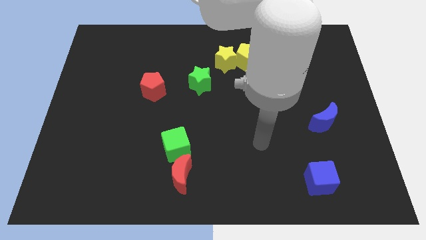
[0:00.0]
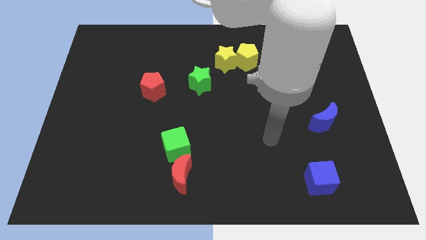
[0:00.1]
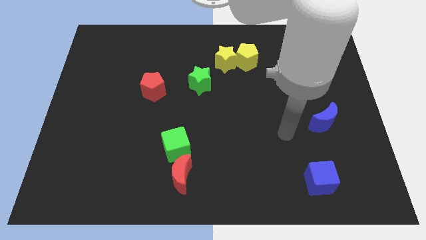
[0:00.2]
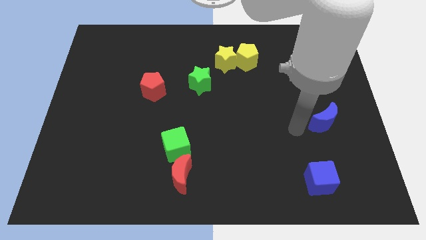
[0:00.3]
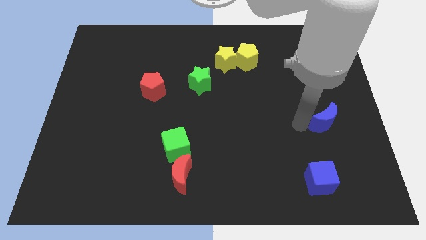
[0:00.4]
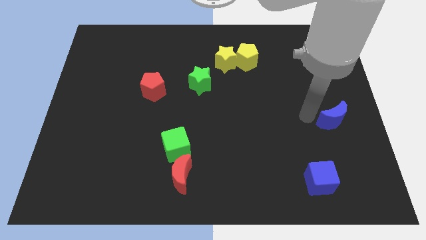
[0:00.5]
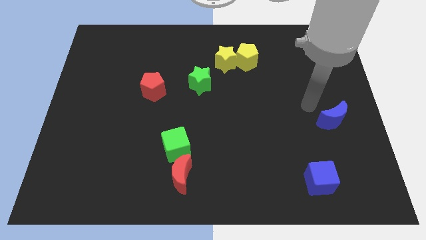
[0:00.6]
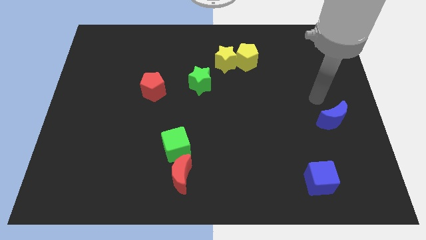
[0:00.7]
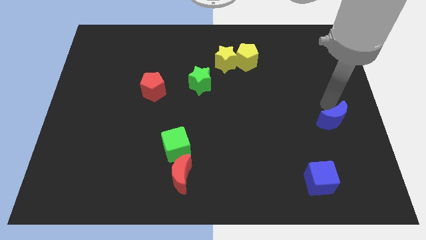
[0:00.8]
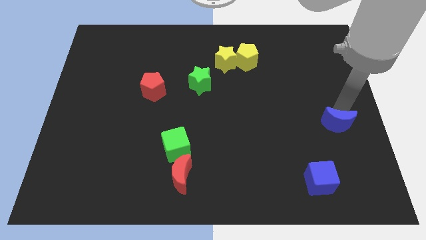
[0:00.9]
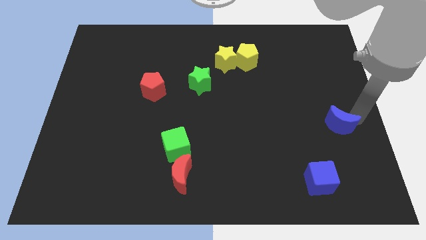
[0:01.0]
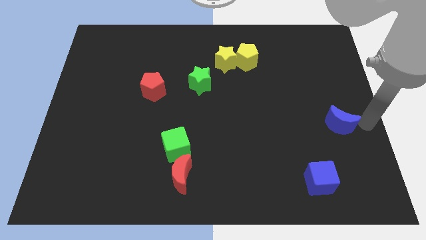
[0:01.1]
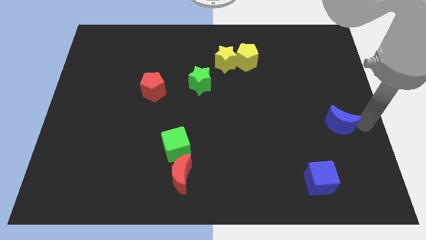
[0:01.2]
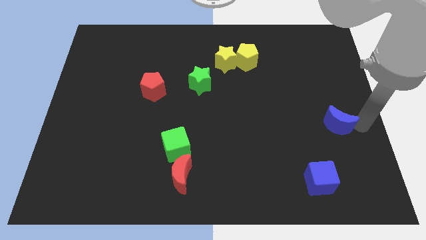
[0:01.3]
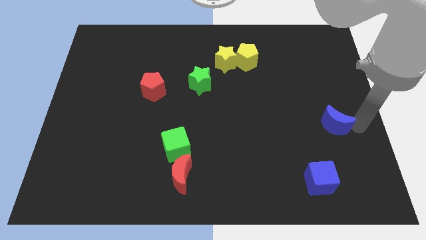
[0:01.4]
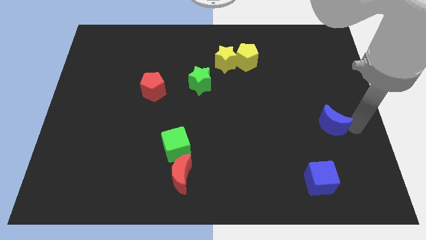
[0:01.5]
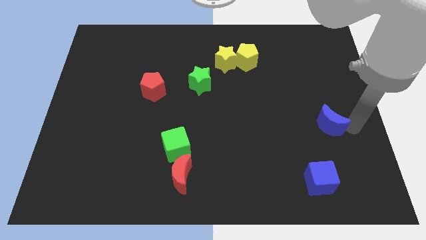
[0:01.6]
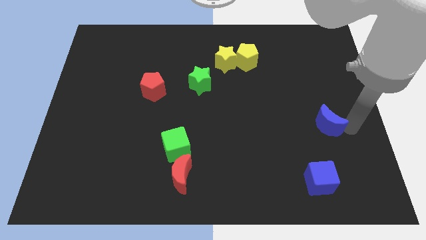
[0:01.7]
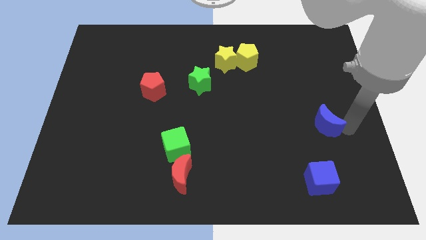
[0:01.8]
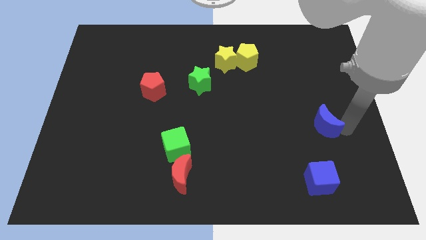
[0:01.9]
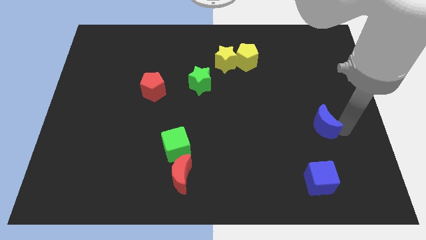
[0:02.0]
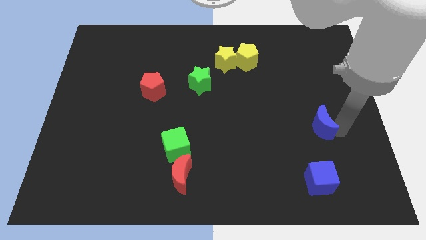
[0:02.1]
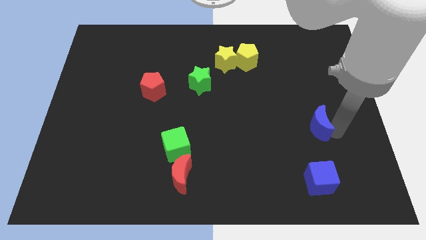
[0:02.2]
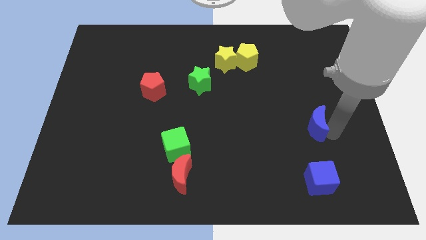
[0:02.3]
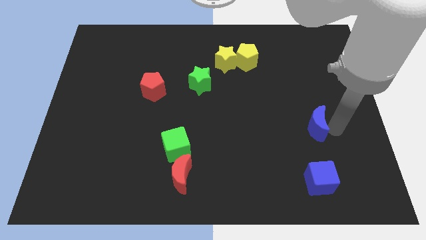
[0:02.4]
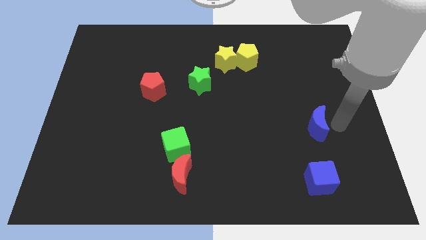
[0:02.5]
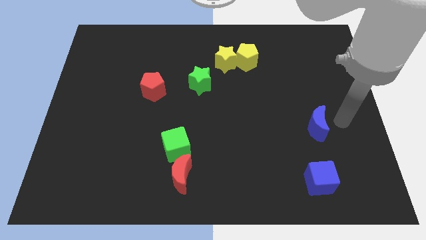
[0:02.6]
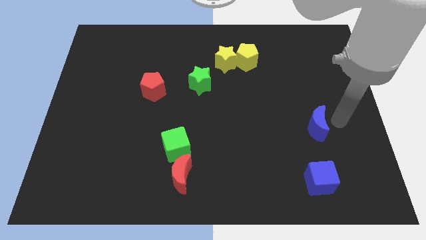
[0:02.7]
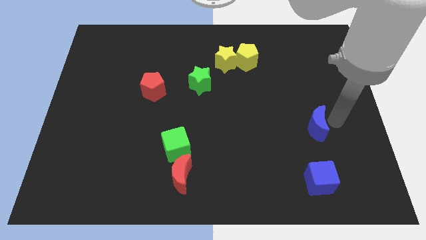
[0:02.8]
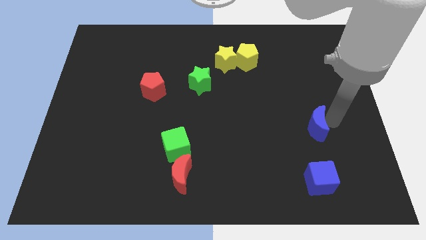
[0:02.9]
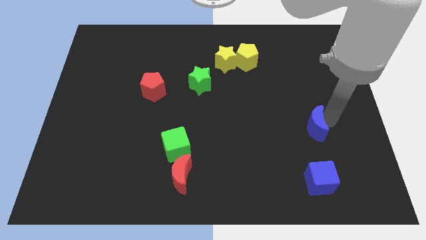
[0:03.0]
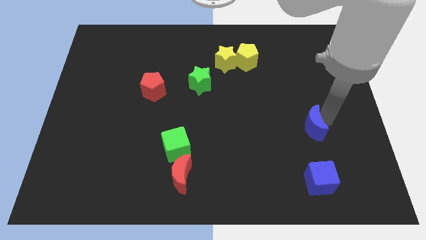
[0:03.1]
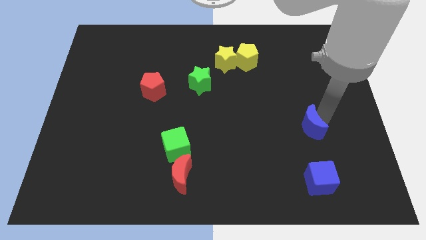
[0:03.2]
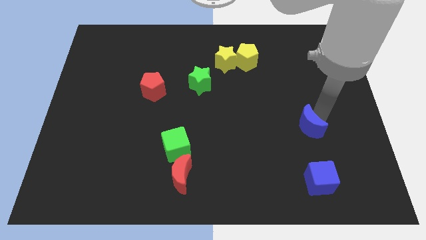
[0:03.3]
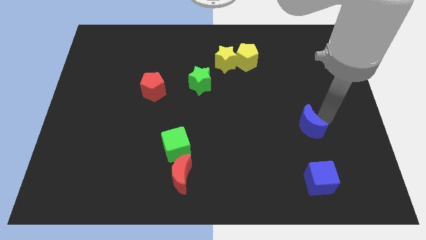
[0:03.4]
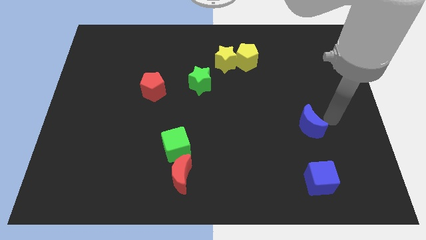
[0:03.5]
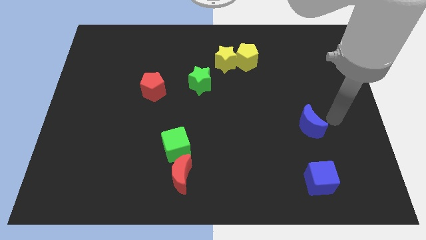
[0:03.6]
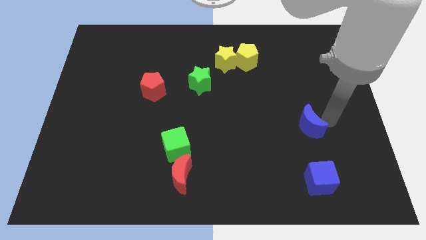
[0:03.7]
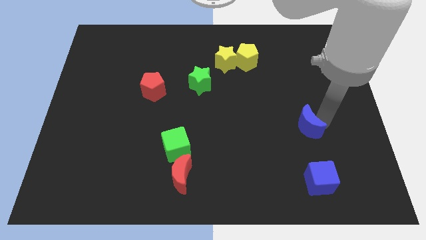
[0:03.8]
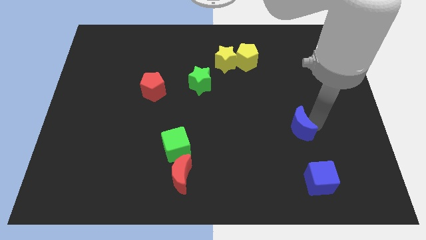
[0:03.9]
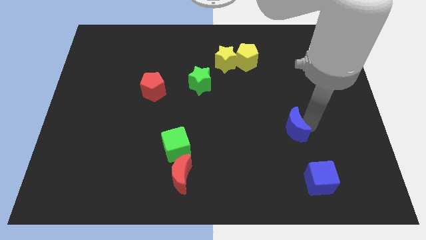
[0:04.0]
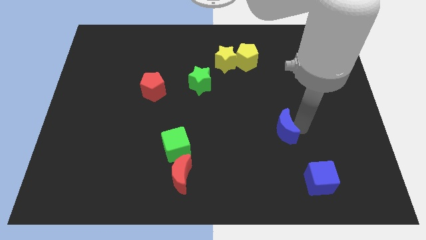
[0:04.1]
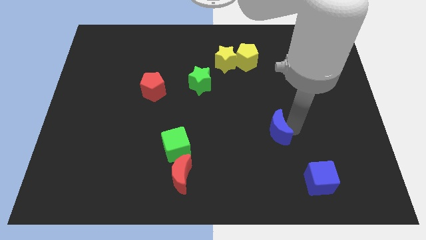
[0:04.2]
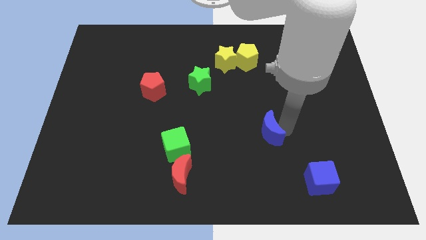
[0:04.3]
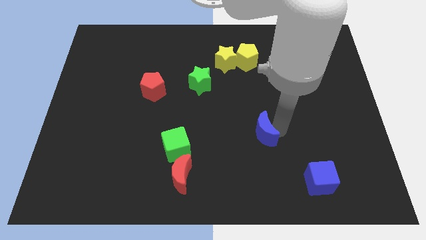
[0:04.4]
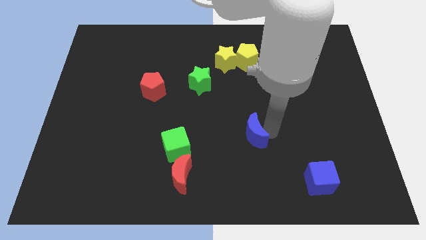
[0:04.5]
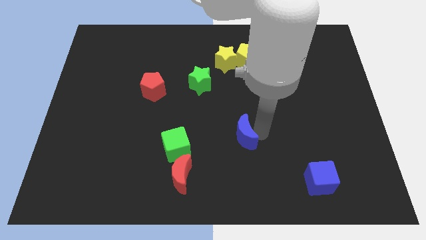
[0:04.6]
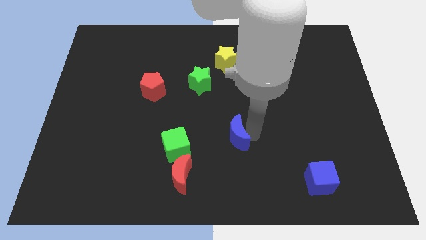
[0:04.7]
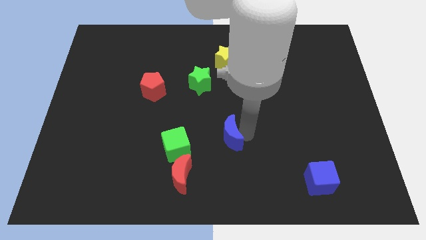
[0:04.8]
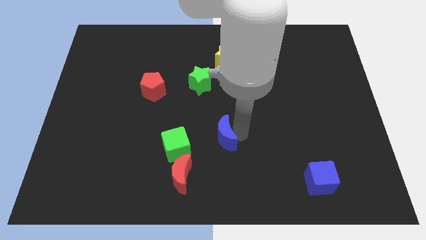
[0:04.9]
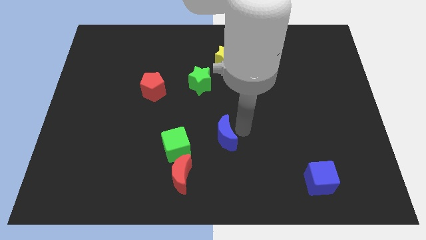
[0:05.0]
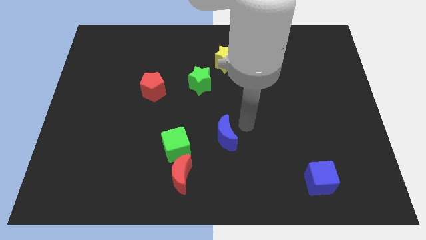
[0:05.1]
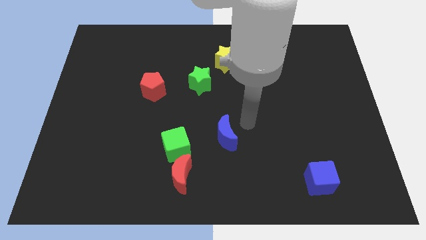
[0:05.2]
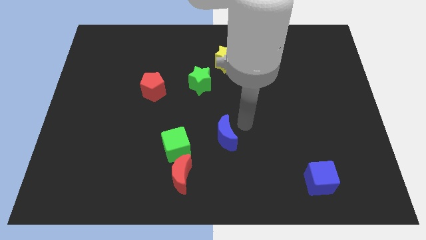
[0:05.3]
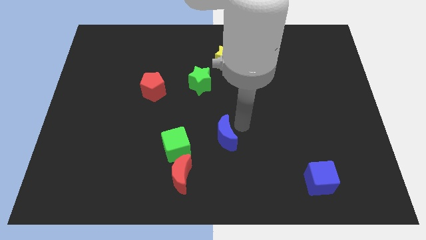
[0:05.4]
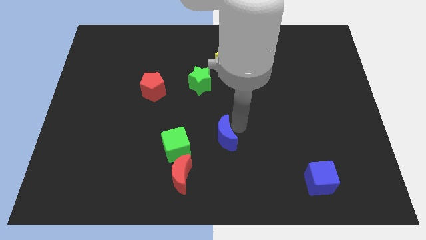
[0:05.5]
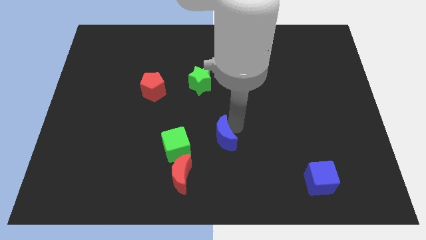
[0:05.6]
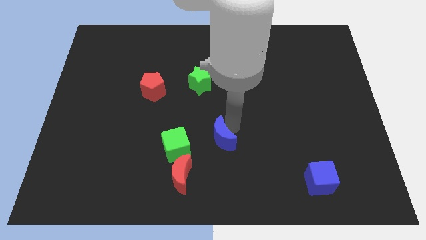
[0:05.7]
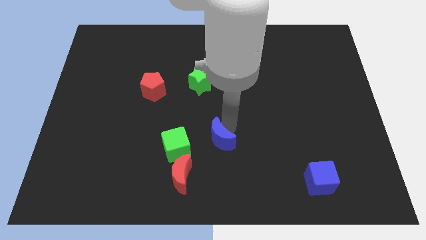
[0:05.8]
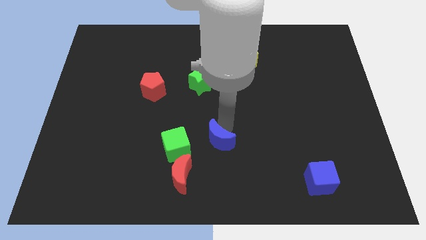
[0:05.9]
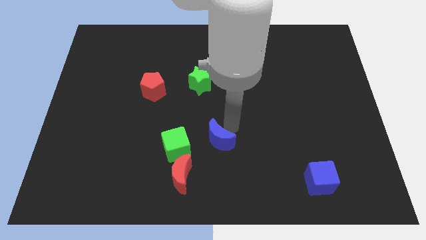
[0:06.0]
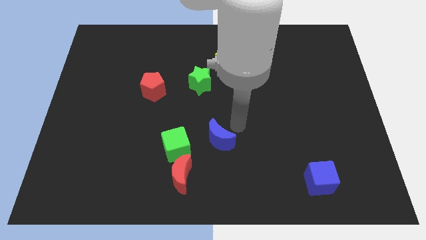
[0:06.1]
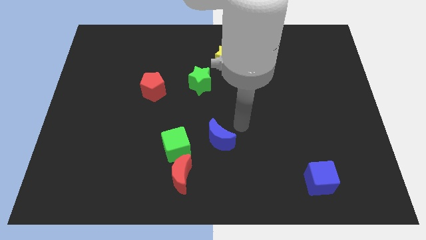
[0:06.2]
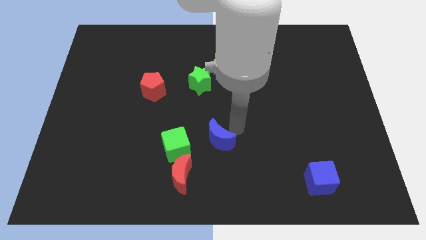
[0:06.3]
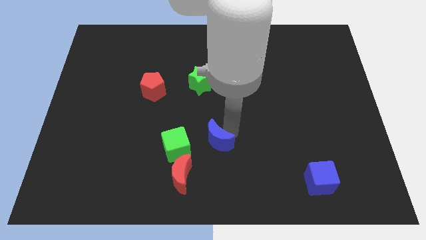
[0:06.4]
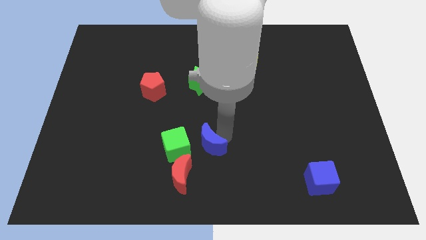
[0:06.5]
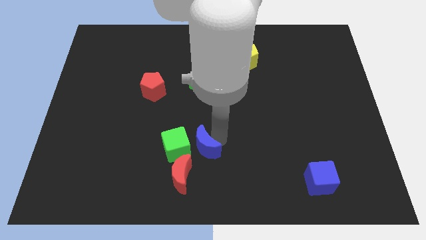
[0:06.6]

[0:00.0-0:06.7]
push the blue moon towards the green cube
